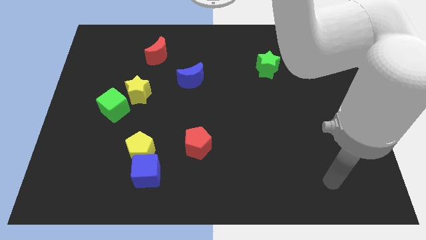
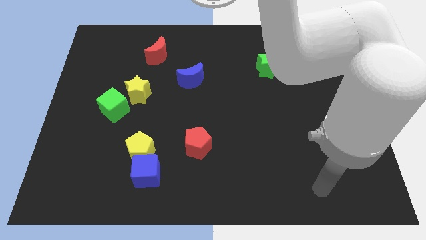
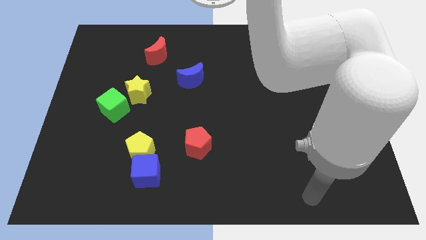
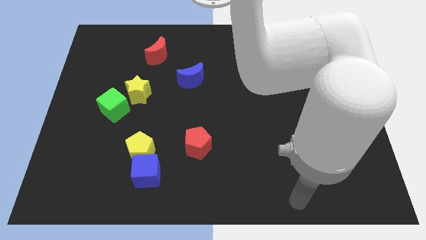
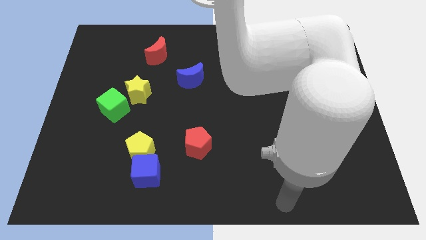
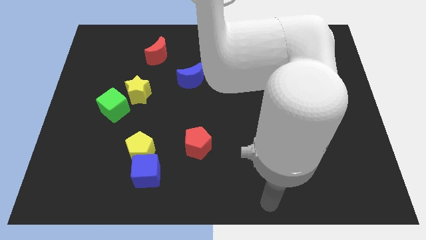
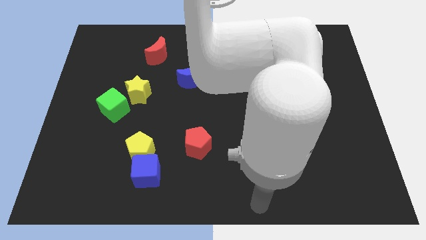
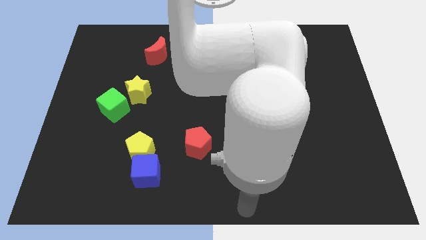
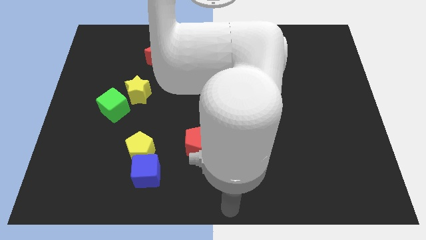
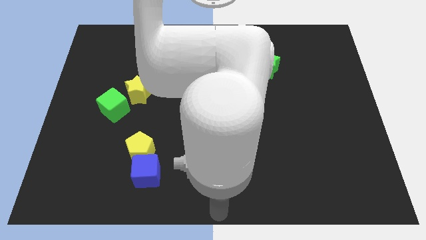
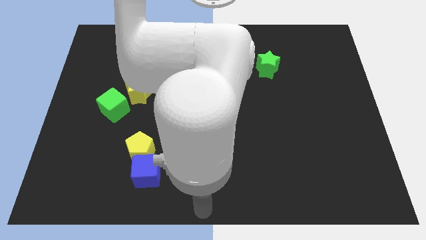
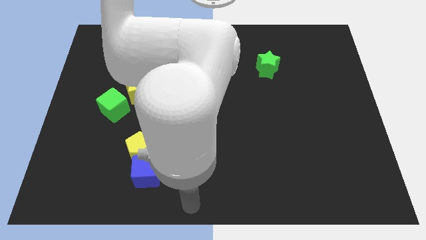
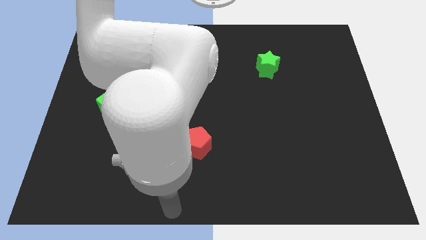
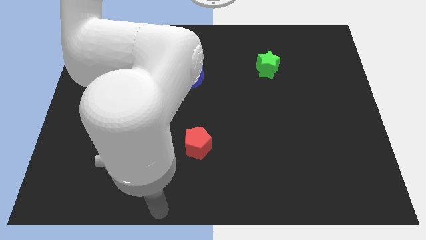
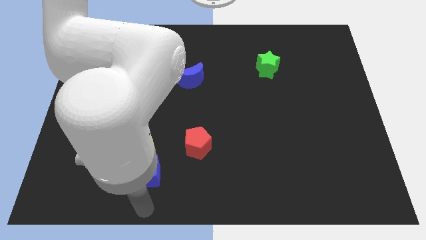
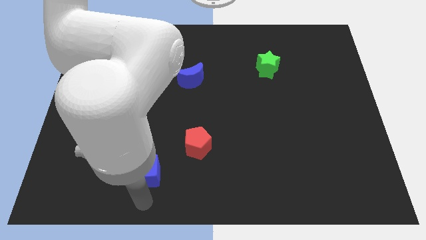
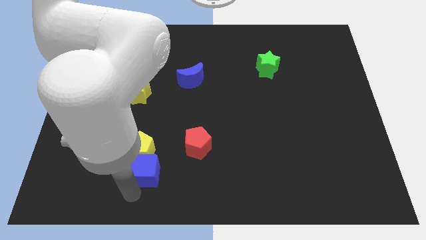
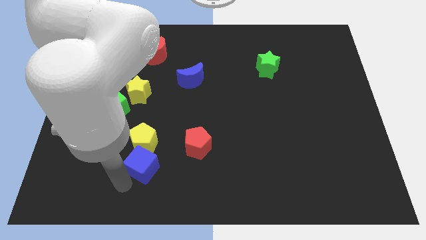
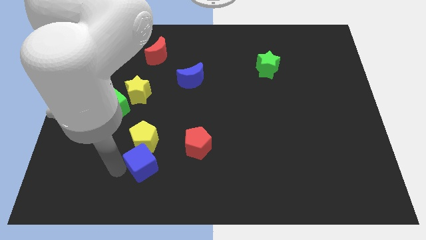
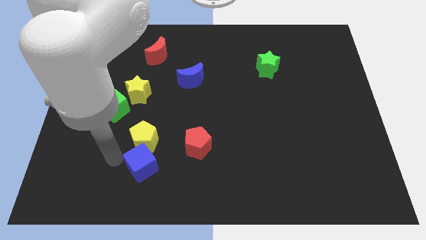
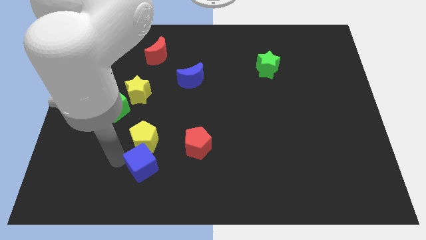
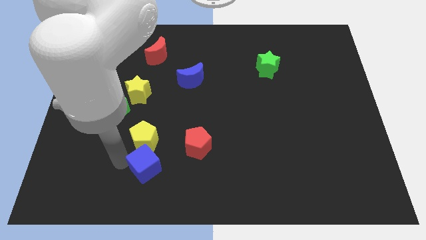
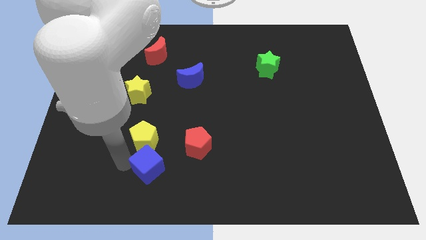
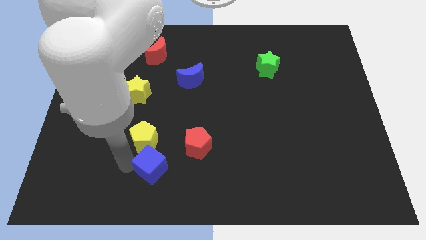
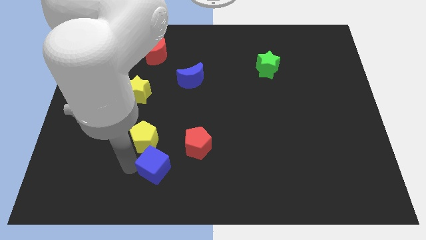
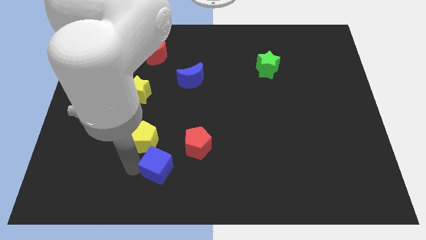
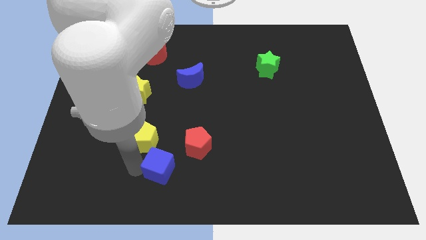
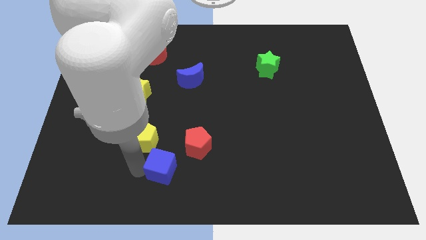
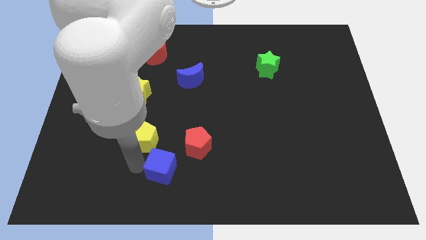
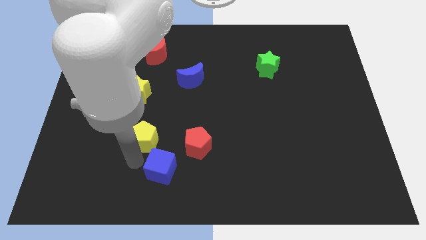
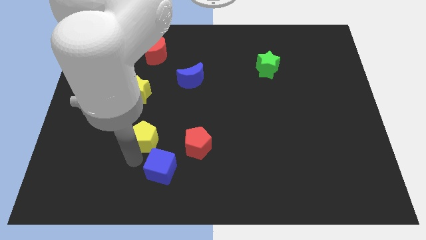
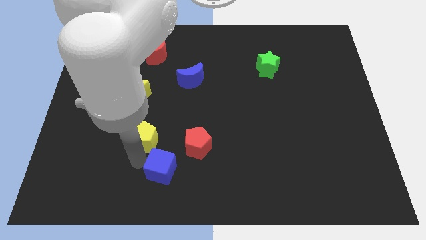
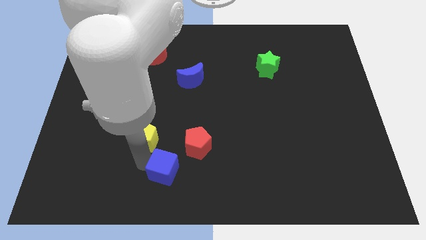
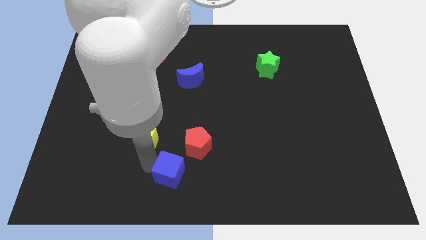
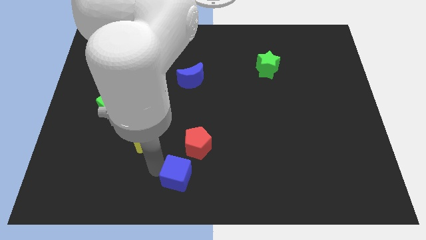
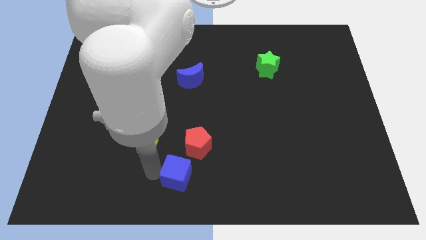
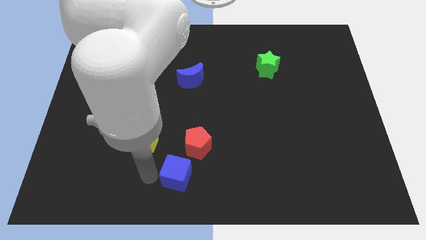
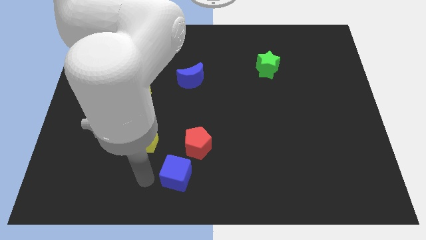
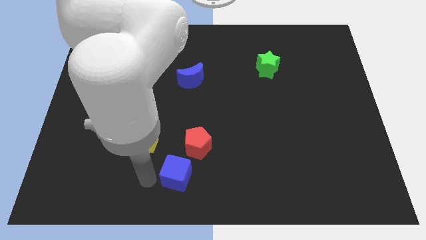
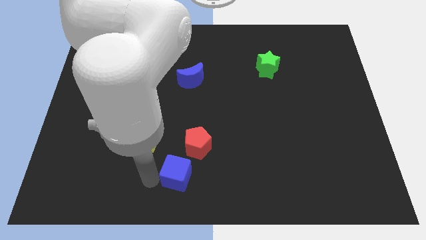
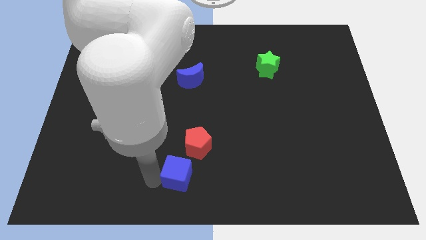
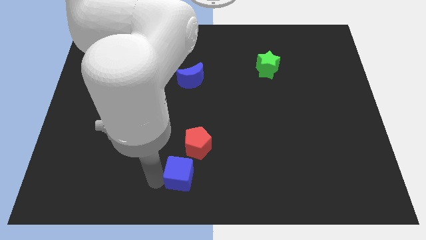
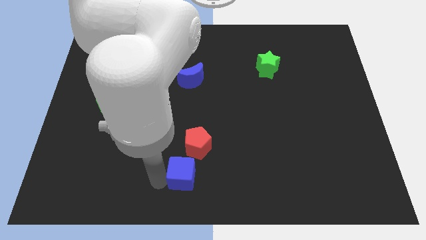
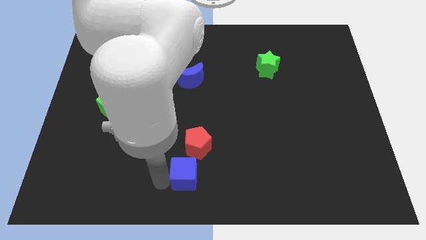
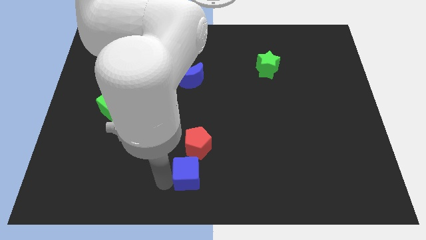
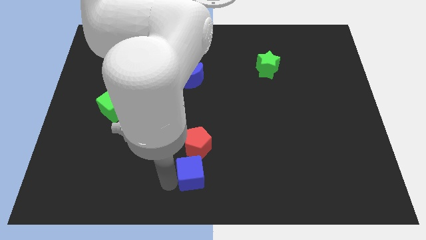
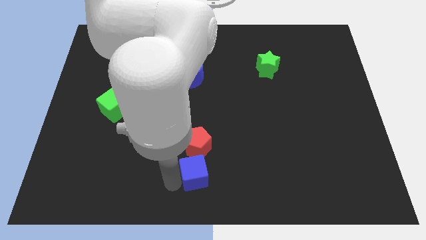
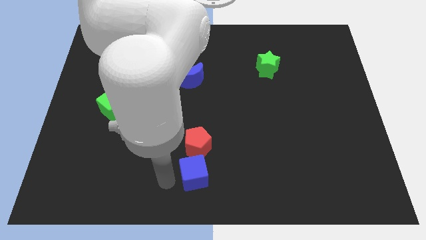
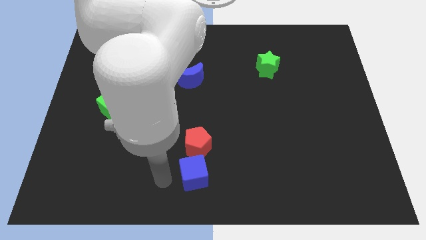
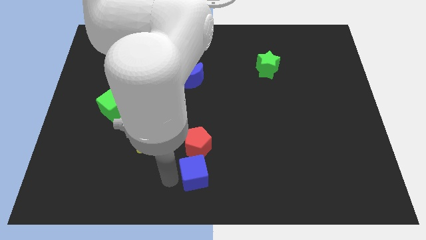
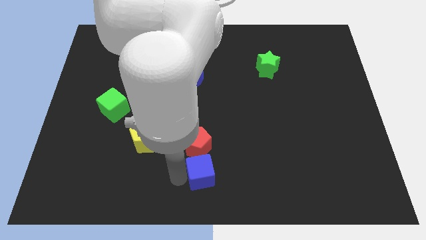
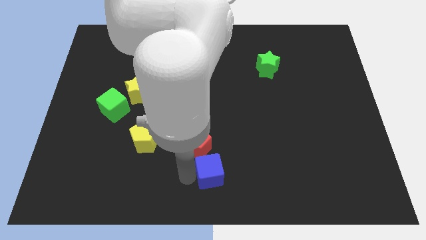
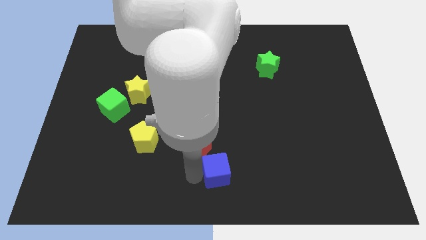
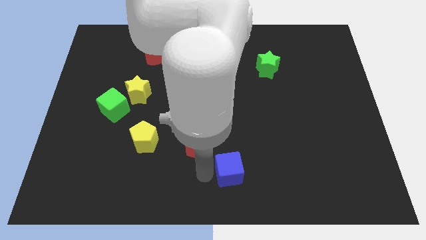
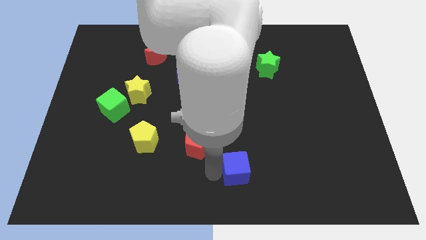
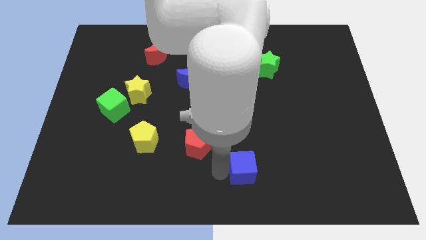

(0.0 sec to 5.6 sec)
slide the blue cube right

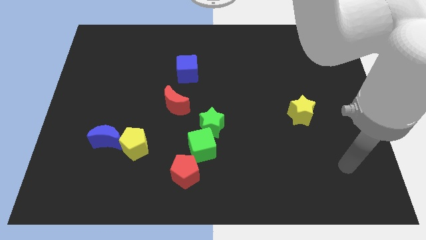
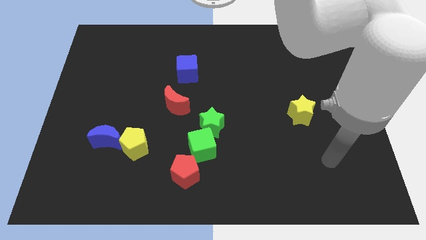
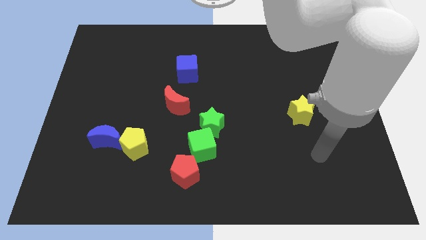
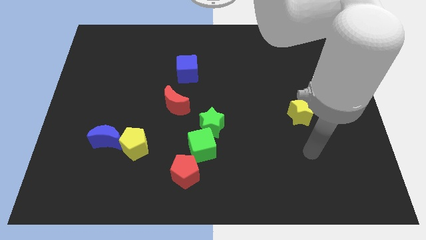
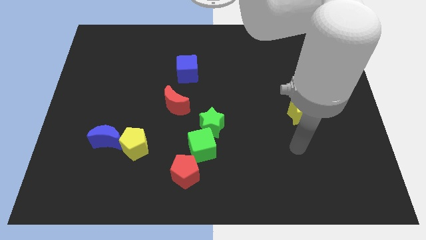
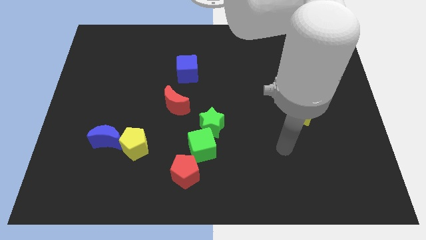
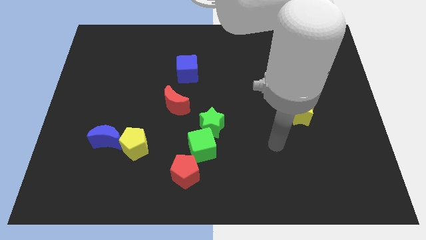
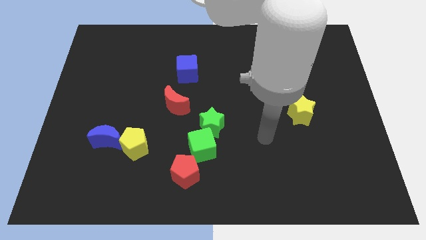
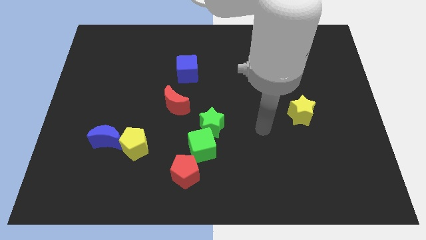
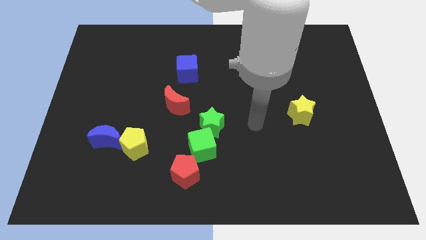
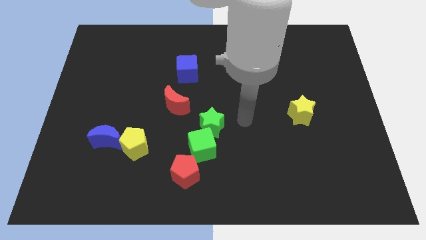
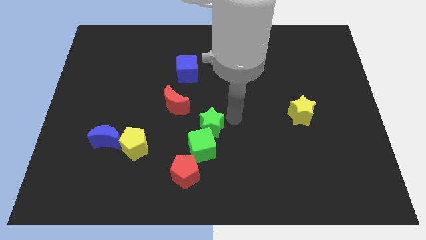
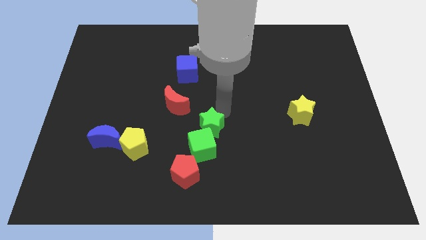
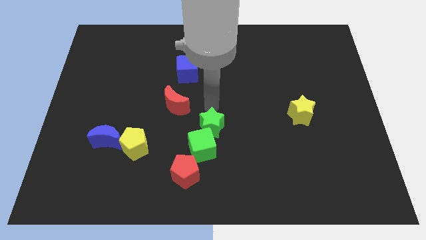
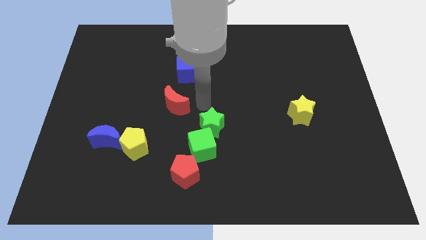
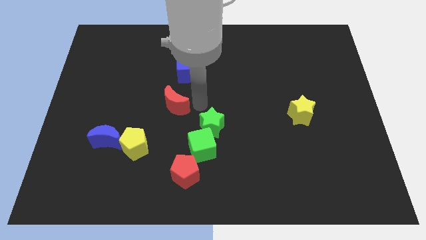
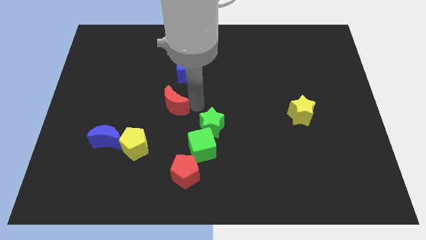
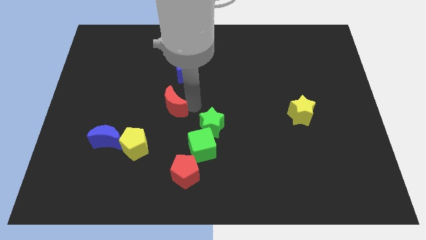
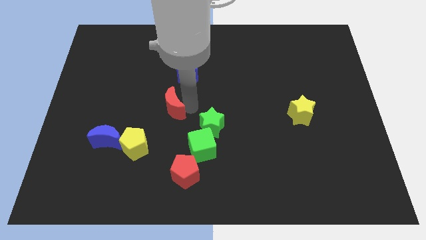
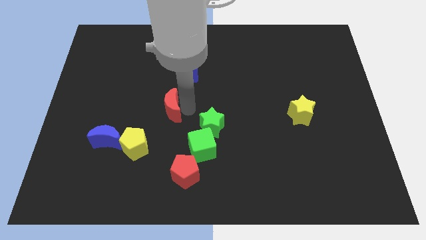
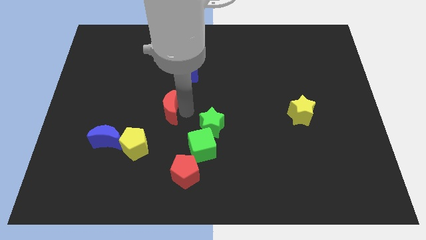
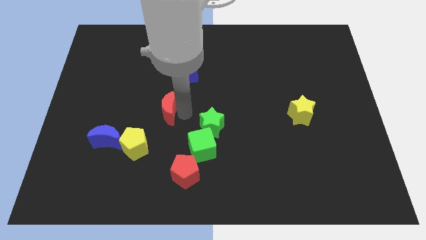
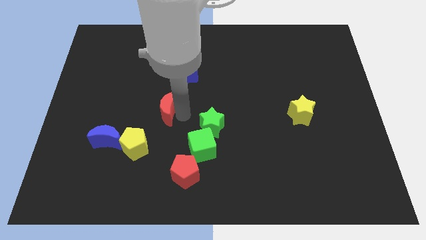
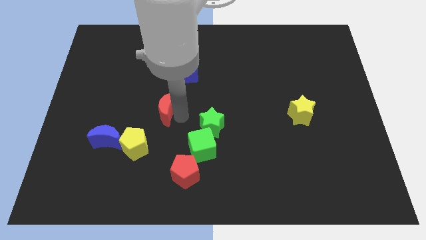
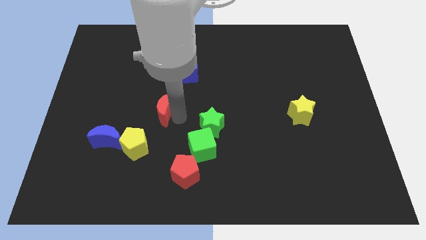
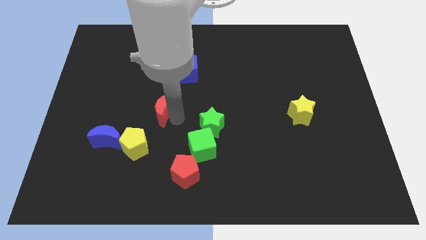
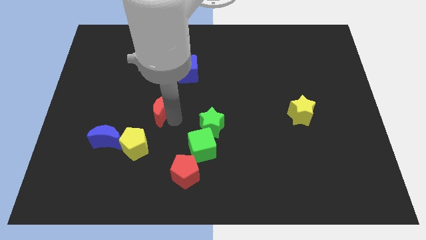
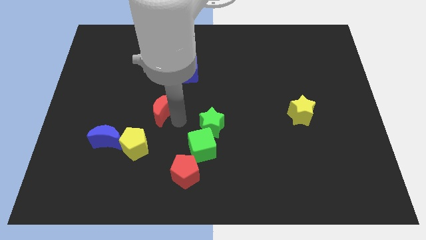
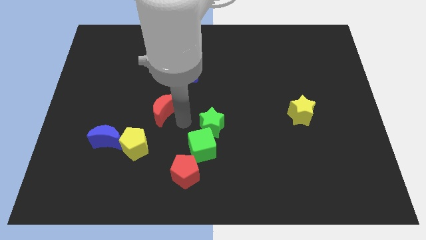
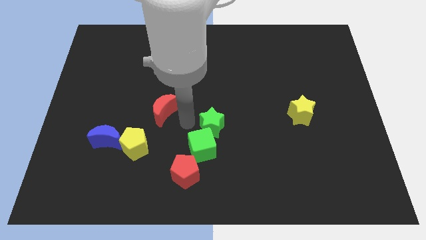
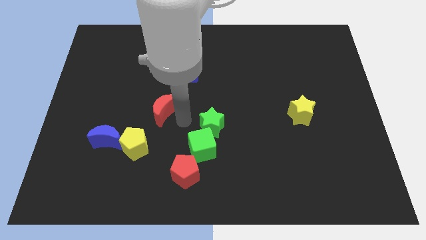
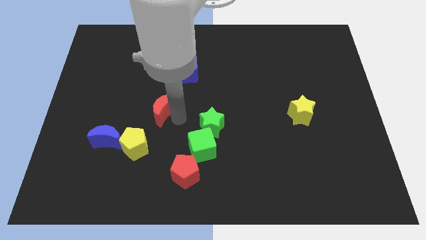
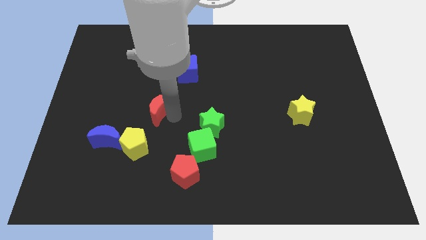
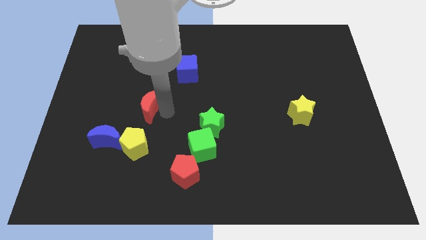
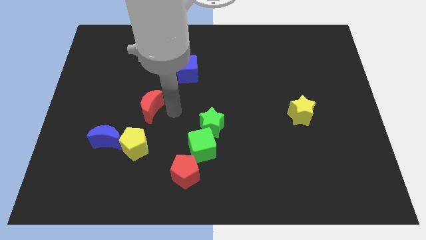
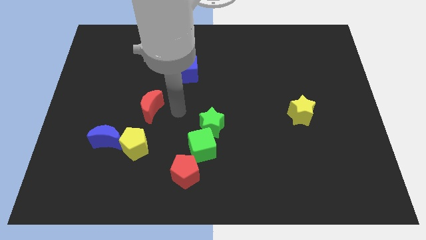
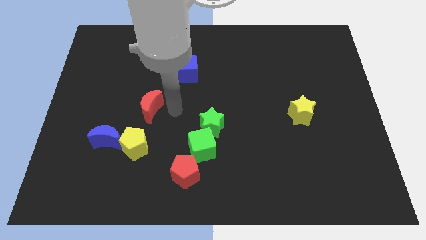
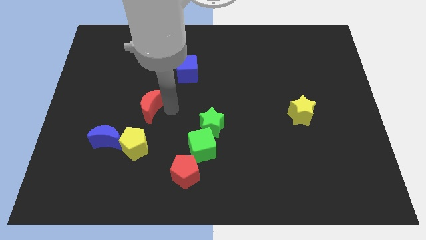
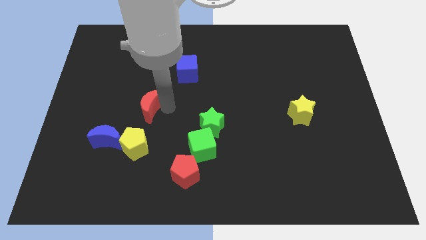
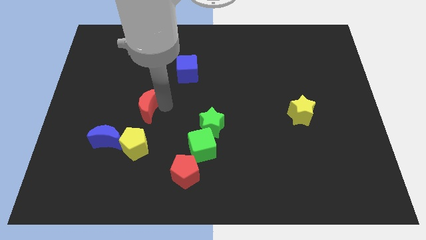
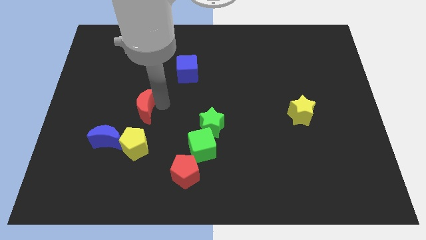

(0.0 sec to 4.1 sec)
move the red moon left slightly
